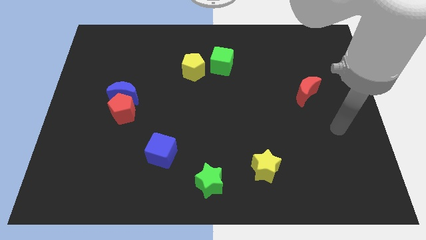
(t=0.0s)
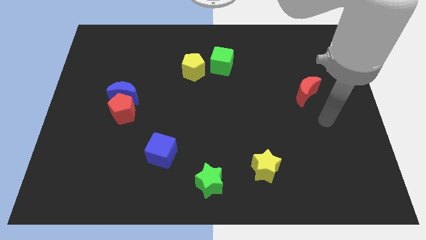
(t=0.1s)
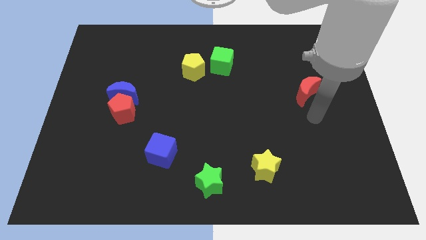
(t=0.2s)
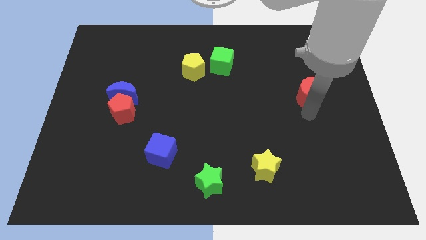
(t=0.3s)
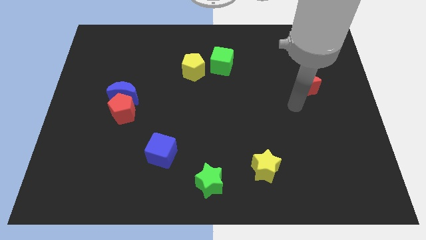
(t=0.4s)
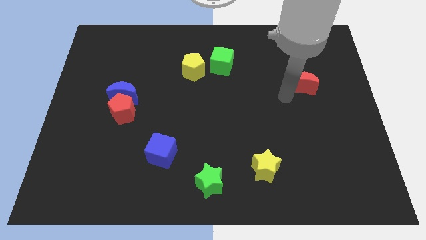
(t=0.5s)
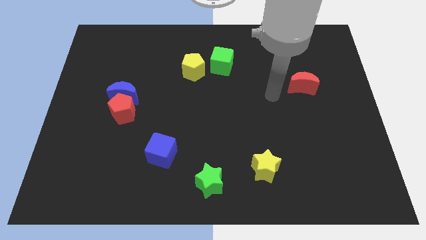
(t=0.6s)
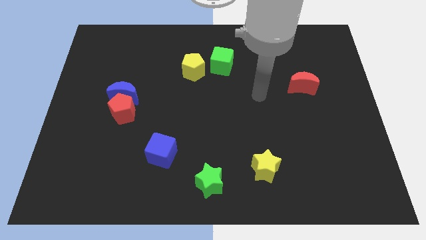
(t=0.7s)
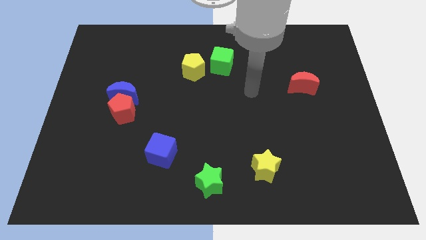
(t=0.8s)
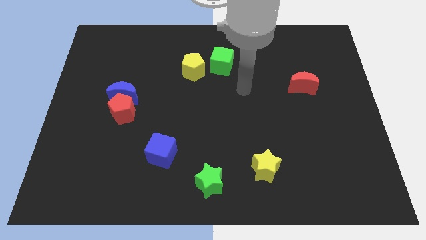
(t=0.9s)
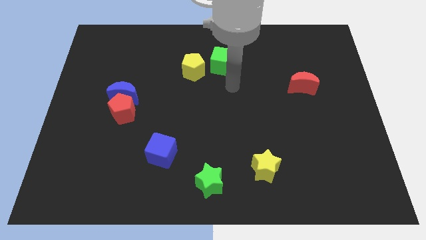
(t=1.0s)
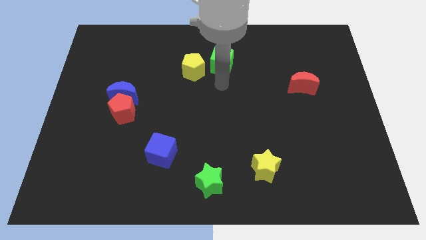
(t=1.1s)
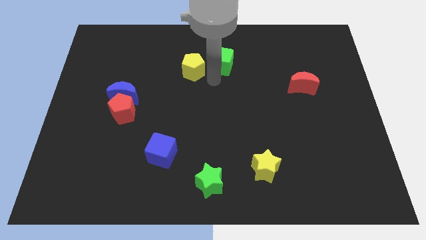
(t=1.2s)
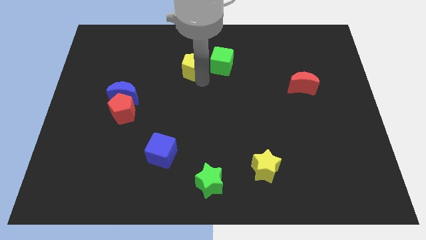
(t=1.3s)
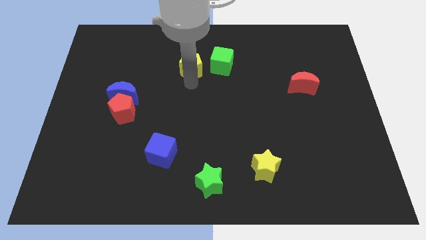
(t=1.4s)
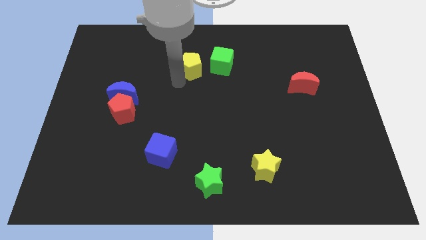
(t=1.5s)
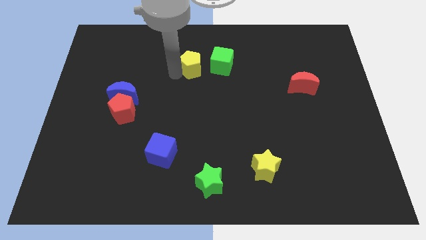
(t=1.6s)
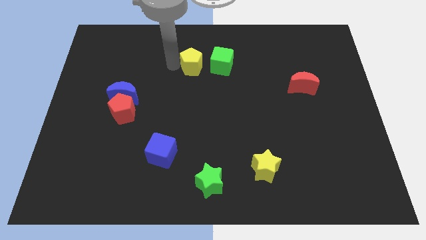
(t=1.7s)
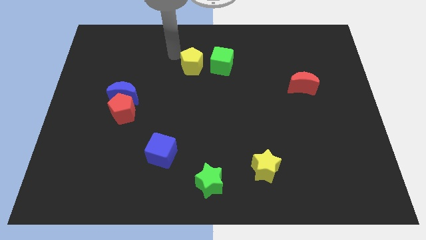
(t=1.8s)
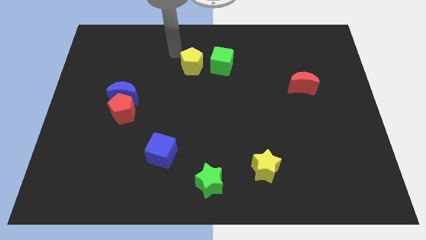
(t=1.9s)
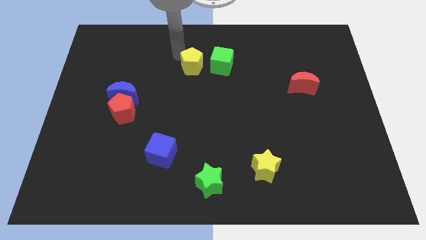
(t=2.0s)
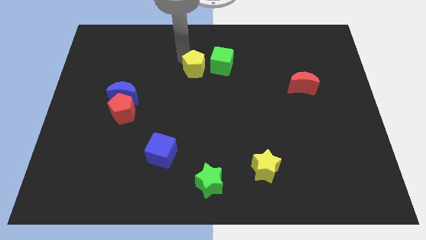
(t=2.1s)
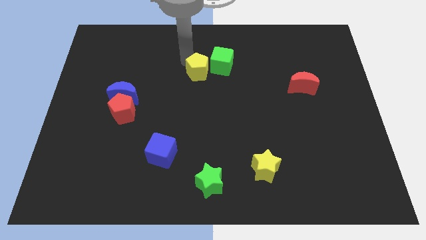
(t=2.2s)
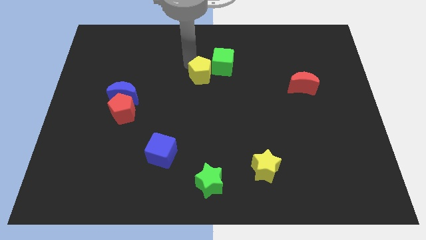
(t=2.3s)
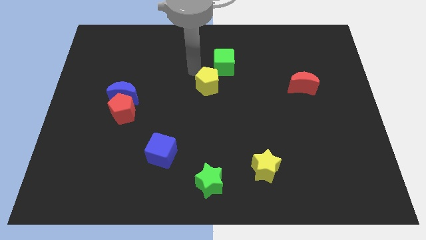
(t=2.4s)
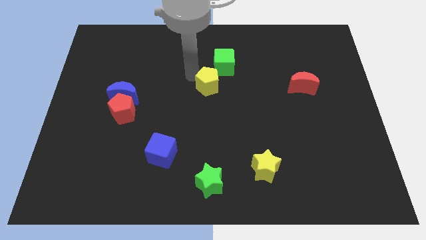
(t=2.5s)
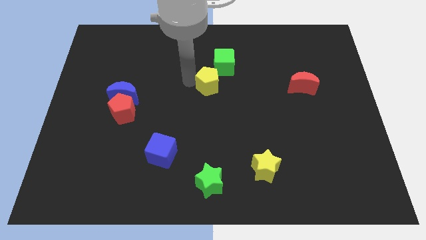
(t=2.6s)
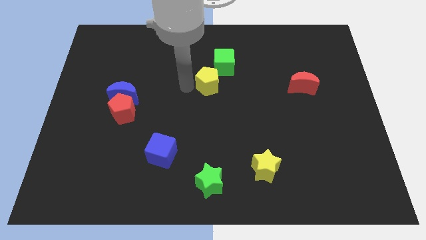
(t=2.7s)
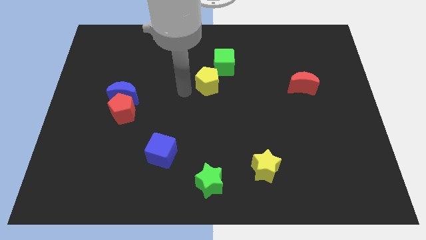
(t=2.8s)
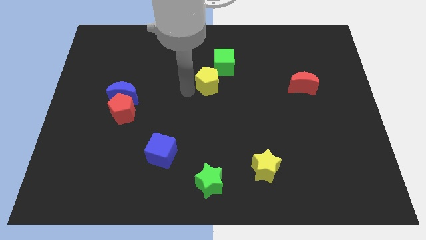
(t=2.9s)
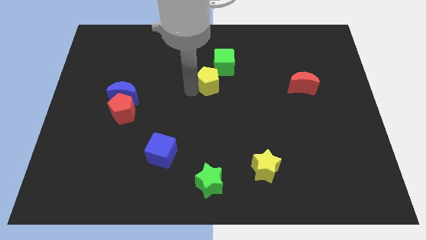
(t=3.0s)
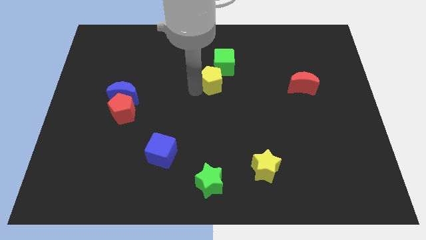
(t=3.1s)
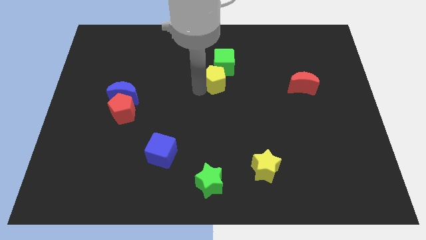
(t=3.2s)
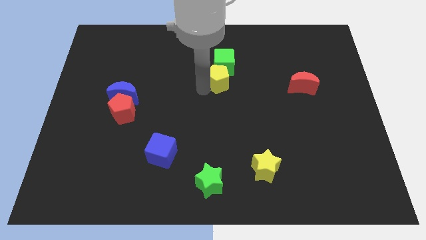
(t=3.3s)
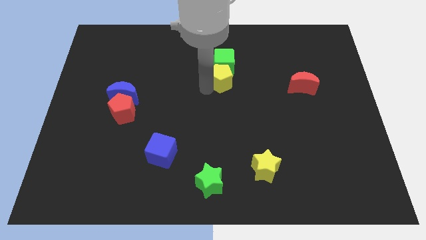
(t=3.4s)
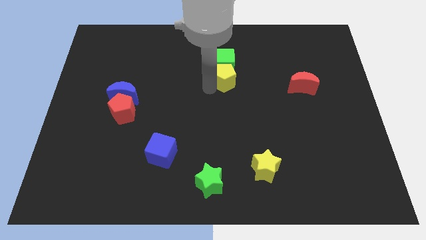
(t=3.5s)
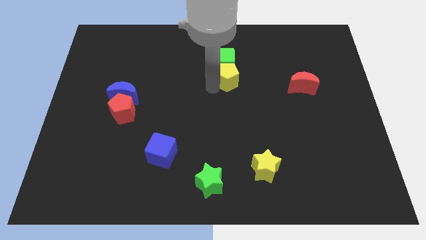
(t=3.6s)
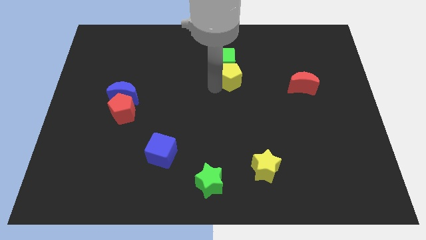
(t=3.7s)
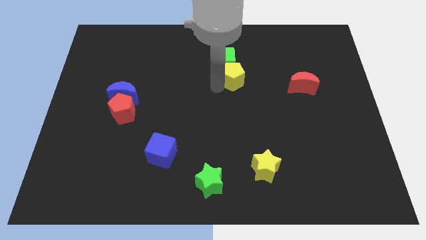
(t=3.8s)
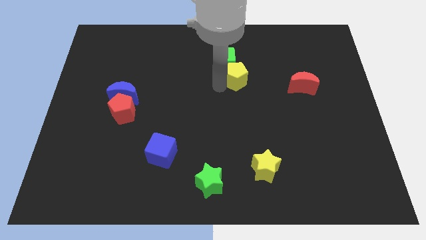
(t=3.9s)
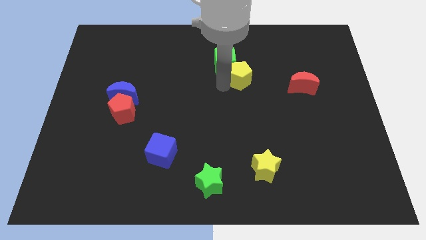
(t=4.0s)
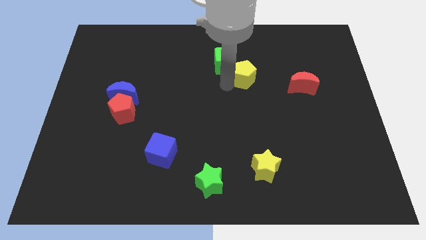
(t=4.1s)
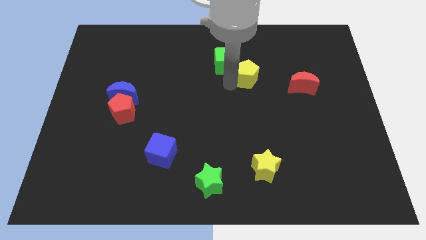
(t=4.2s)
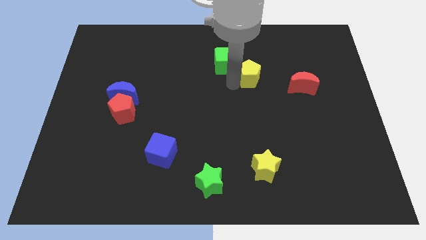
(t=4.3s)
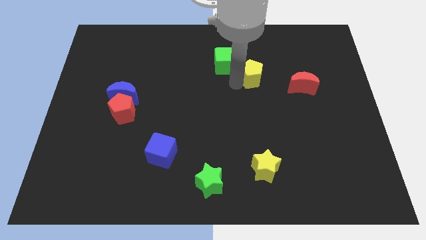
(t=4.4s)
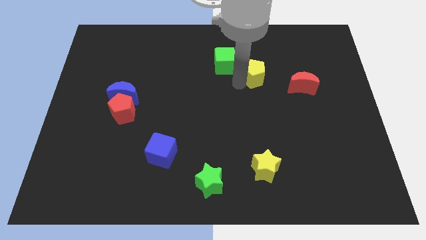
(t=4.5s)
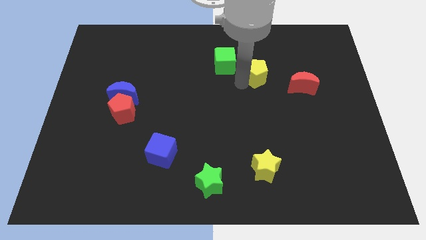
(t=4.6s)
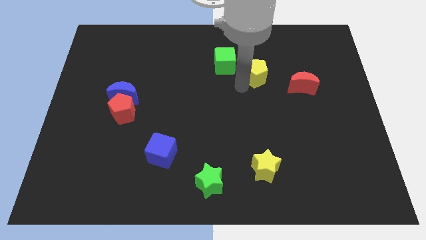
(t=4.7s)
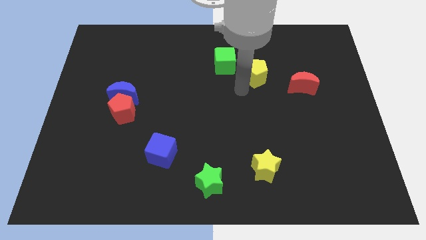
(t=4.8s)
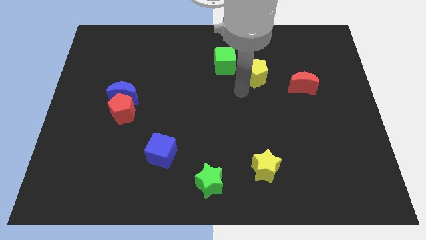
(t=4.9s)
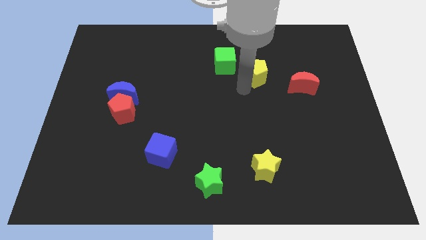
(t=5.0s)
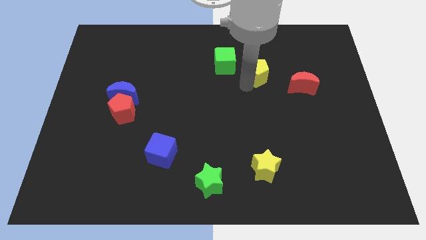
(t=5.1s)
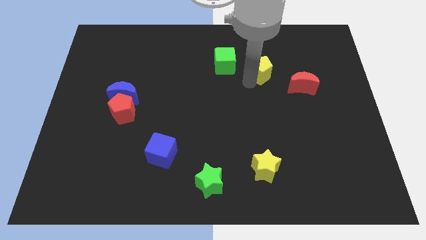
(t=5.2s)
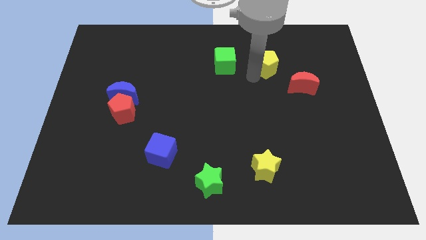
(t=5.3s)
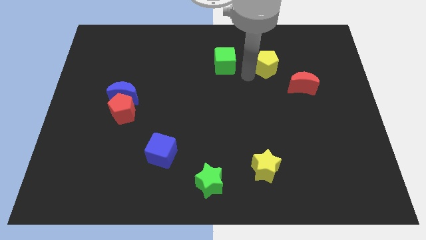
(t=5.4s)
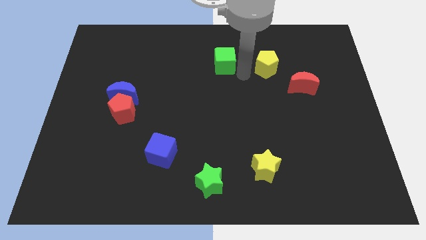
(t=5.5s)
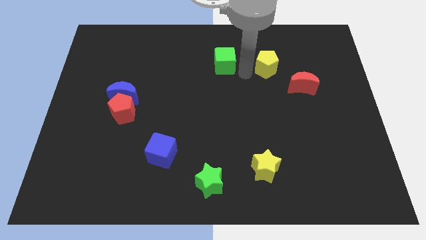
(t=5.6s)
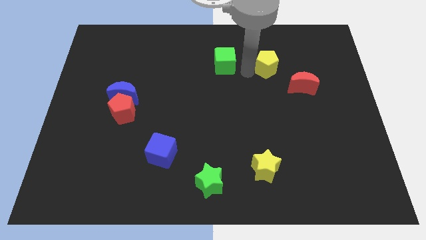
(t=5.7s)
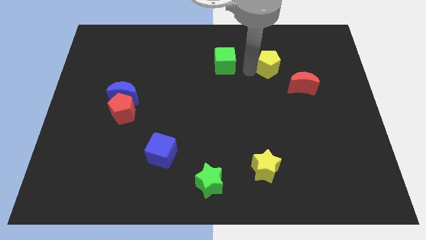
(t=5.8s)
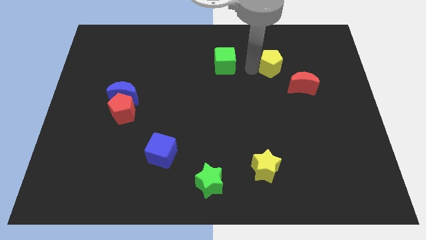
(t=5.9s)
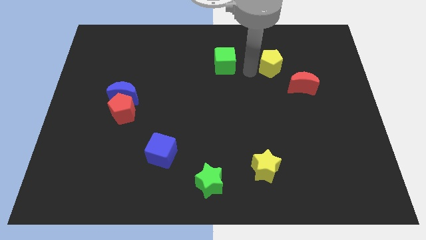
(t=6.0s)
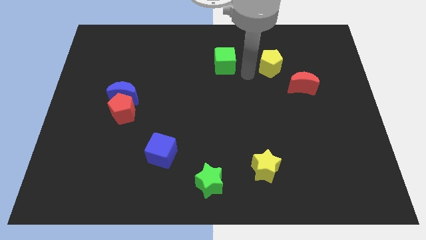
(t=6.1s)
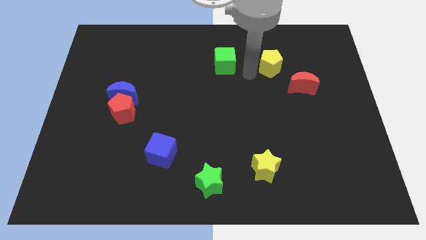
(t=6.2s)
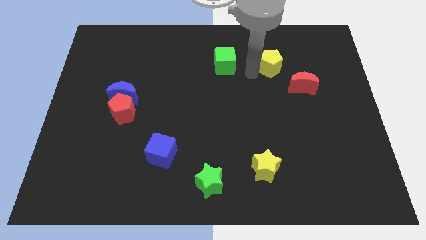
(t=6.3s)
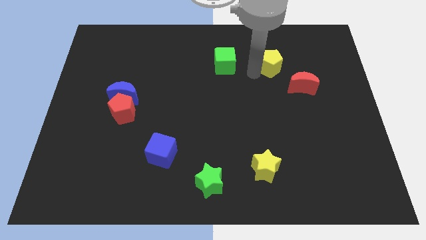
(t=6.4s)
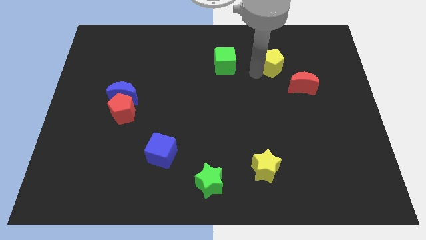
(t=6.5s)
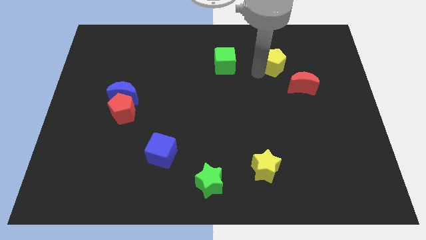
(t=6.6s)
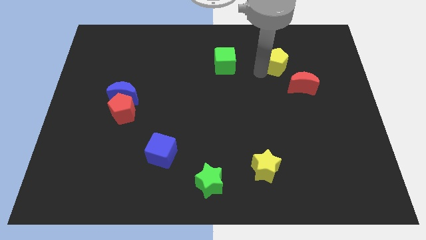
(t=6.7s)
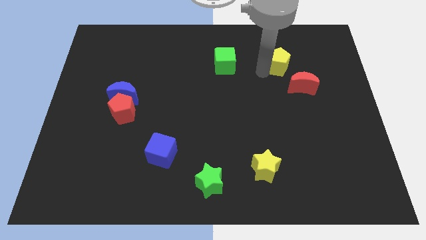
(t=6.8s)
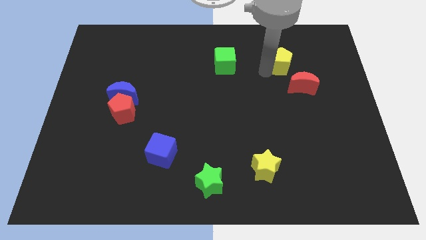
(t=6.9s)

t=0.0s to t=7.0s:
push the yellow pentagon above the red moon
